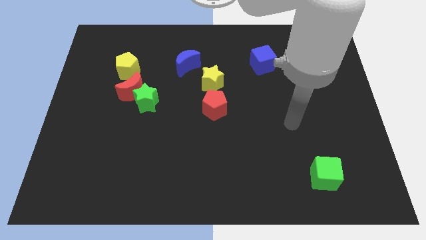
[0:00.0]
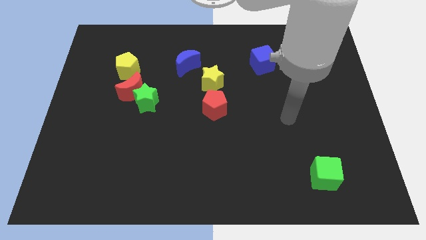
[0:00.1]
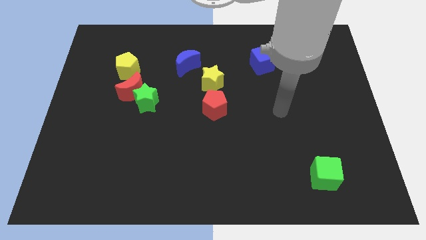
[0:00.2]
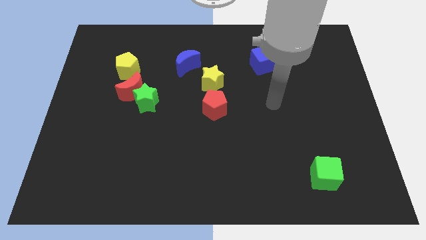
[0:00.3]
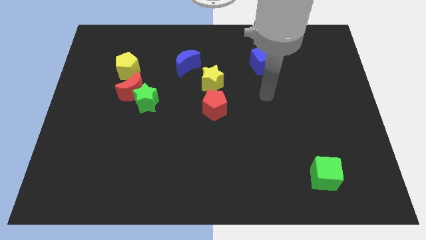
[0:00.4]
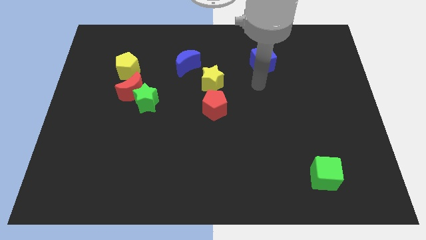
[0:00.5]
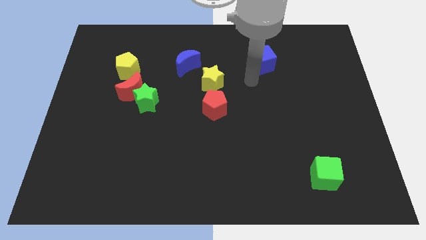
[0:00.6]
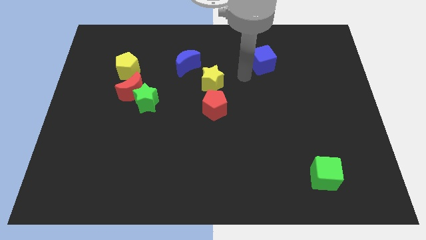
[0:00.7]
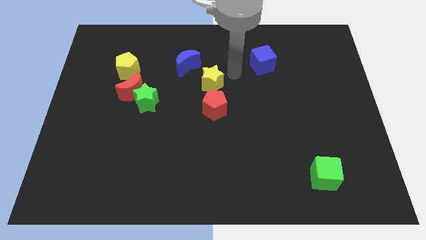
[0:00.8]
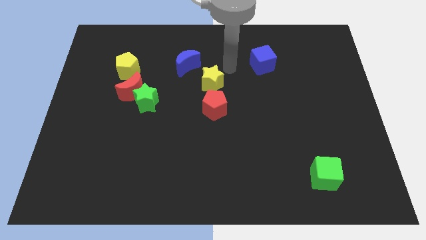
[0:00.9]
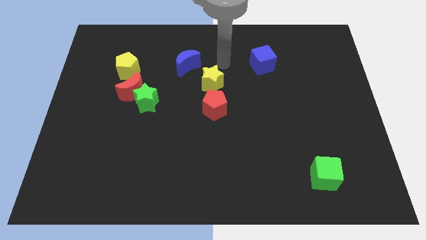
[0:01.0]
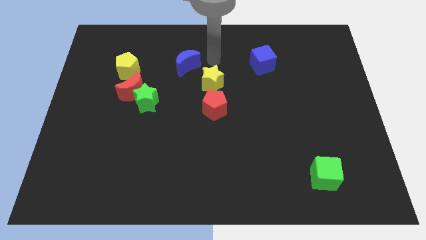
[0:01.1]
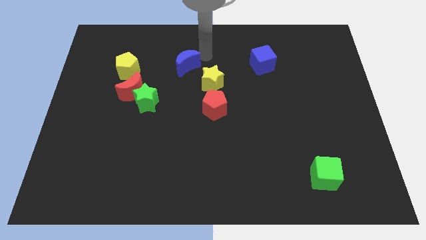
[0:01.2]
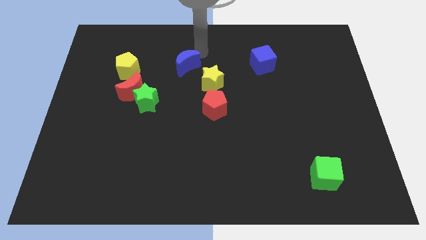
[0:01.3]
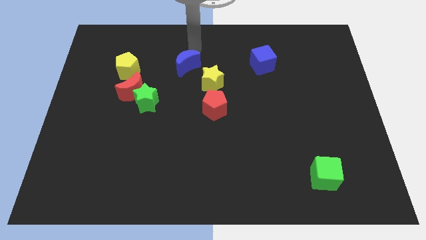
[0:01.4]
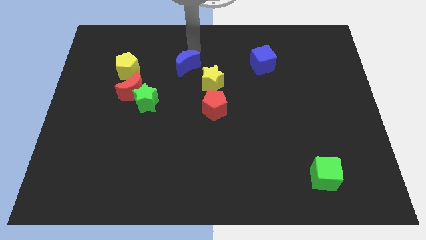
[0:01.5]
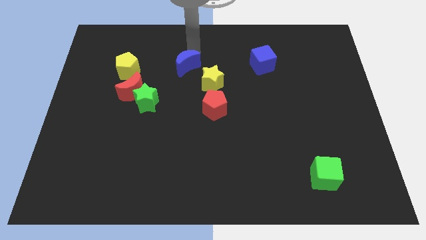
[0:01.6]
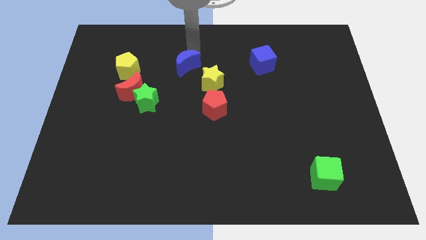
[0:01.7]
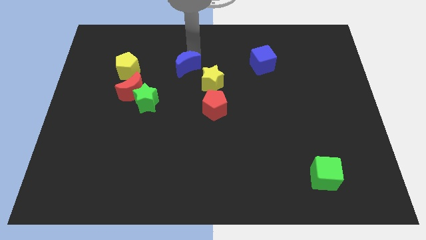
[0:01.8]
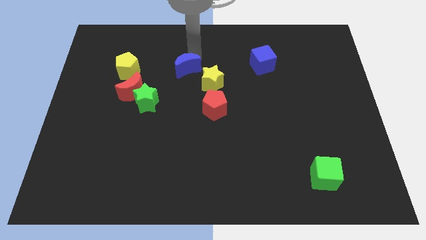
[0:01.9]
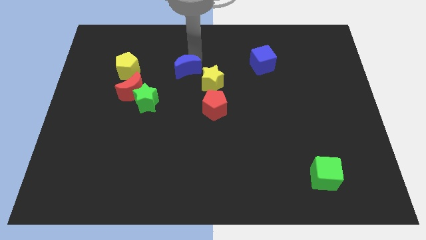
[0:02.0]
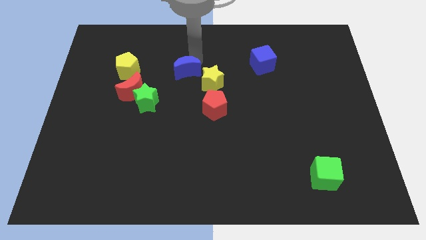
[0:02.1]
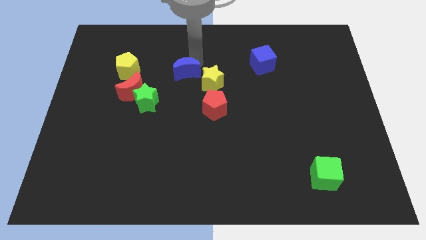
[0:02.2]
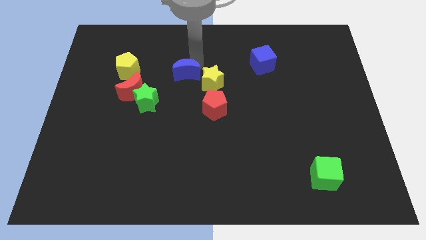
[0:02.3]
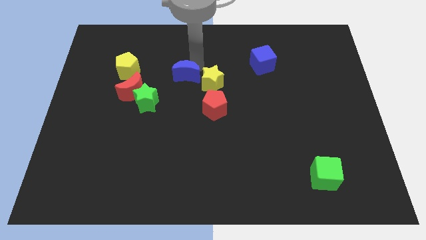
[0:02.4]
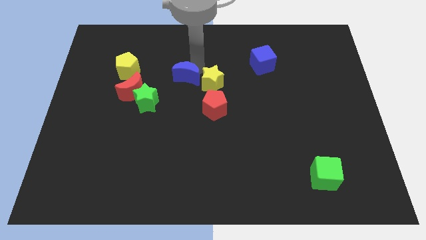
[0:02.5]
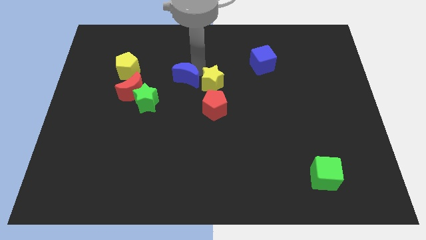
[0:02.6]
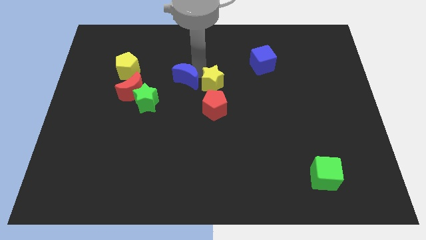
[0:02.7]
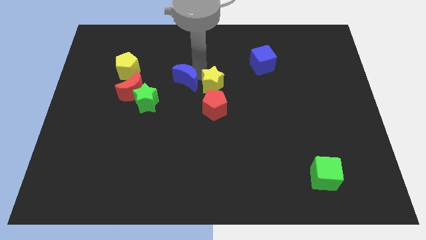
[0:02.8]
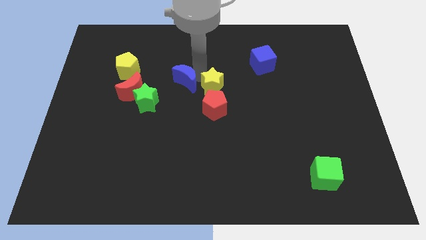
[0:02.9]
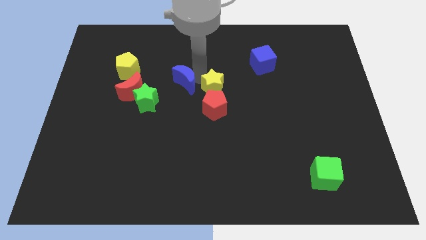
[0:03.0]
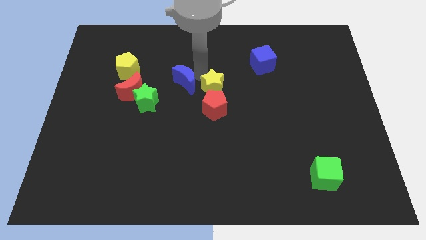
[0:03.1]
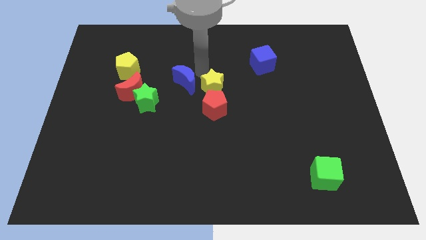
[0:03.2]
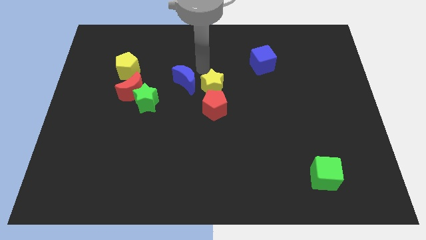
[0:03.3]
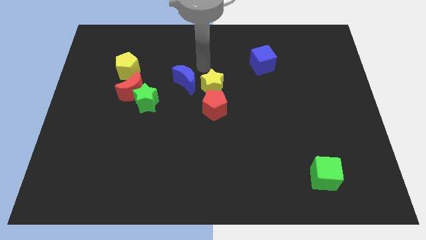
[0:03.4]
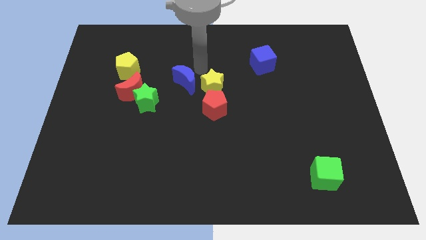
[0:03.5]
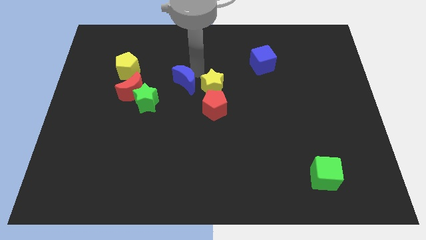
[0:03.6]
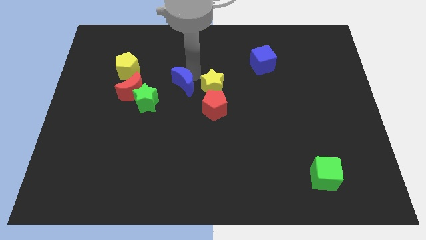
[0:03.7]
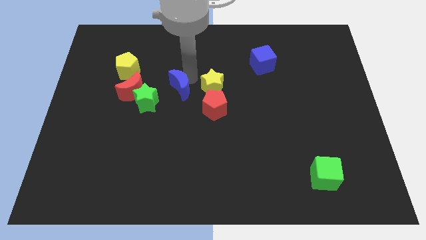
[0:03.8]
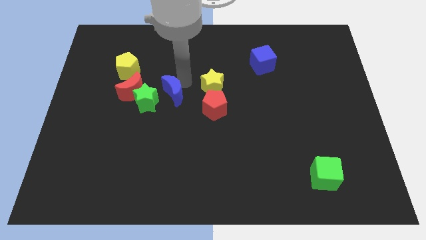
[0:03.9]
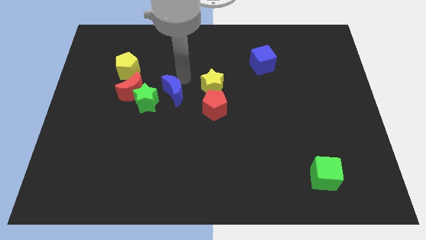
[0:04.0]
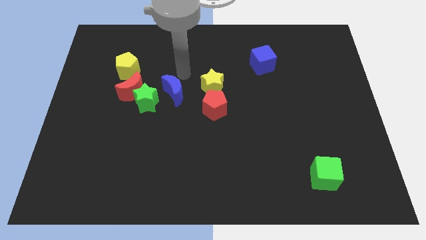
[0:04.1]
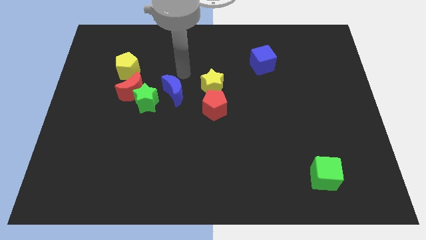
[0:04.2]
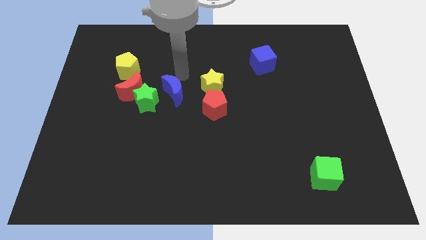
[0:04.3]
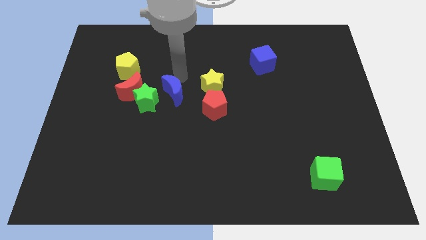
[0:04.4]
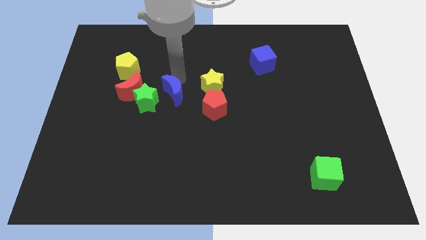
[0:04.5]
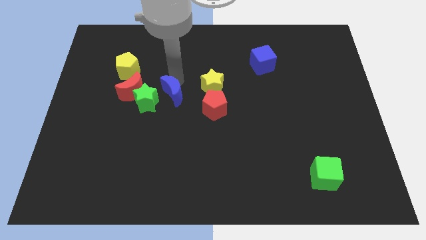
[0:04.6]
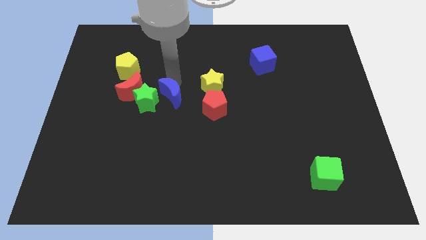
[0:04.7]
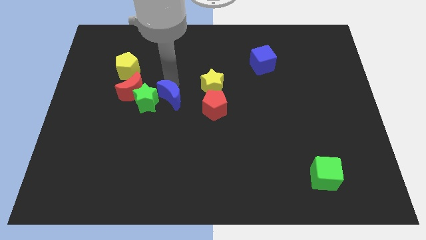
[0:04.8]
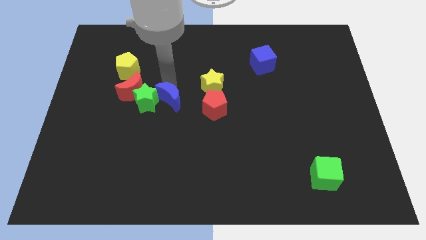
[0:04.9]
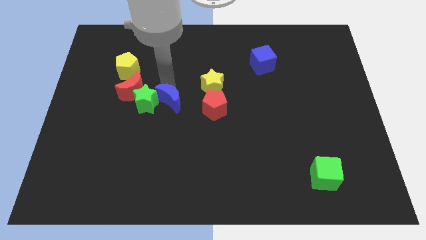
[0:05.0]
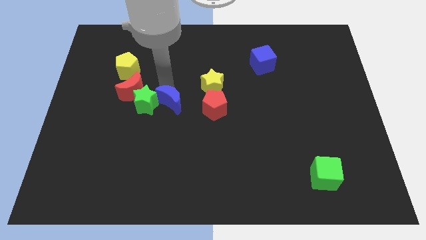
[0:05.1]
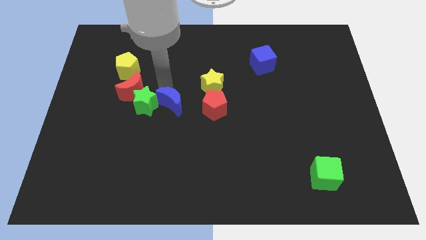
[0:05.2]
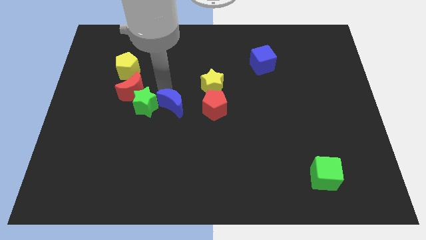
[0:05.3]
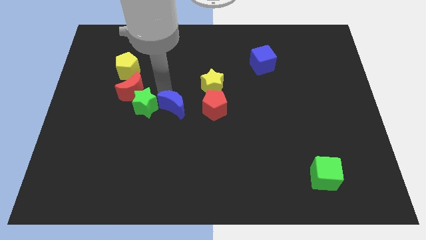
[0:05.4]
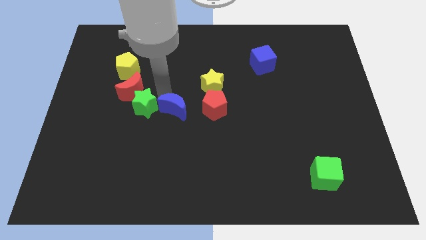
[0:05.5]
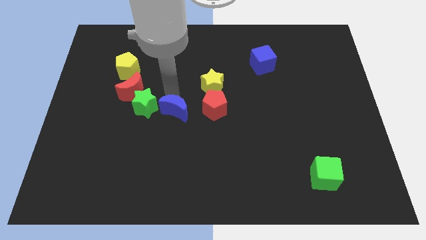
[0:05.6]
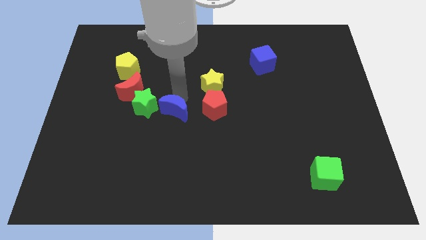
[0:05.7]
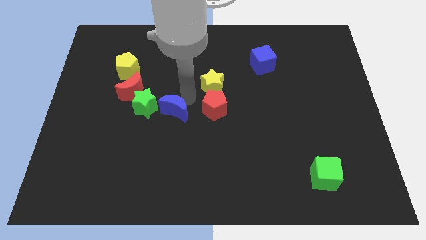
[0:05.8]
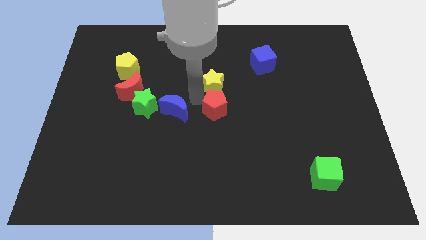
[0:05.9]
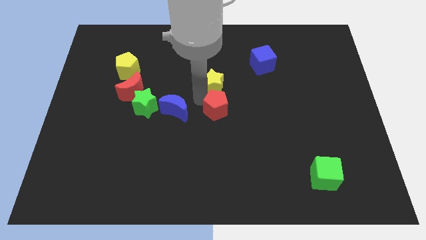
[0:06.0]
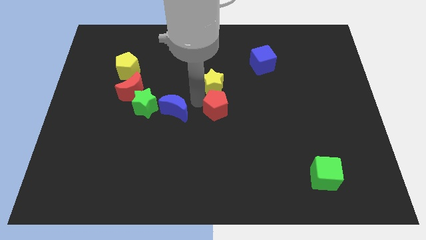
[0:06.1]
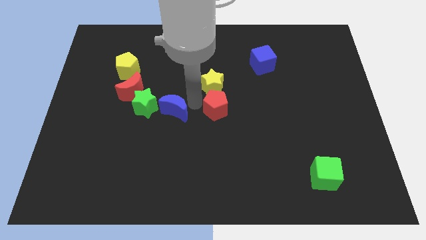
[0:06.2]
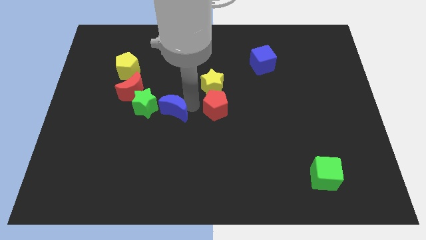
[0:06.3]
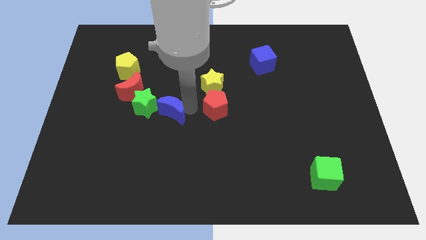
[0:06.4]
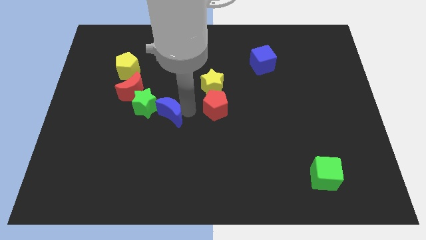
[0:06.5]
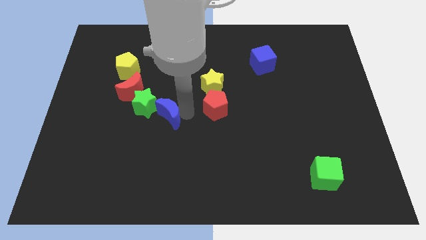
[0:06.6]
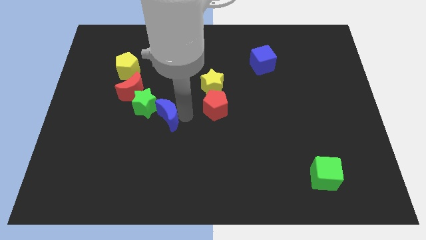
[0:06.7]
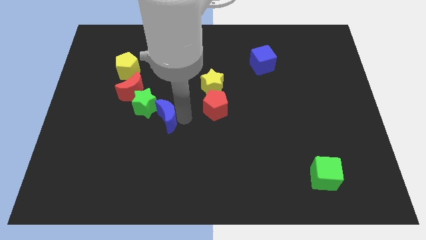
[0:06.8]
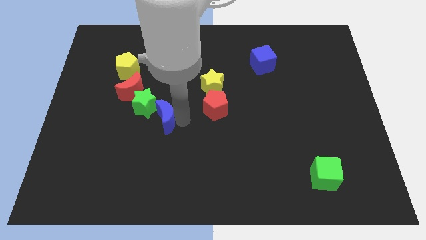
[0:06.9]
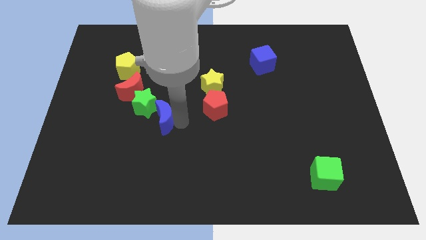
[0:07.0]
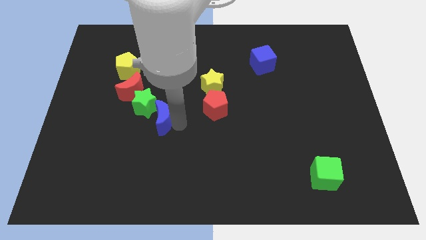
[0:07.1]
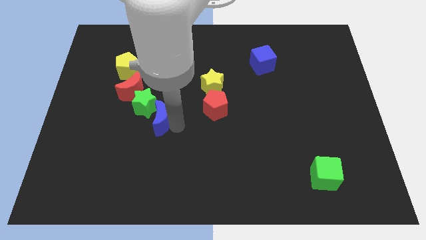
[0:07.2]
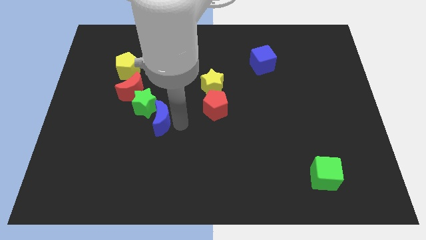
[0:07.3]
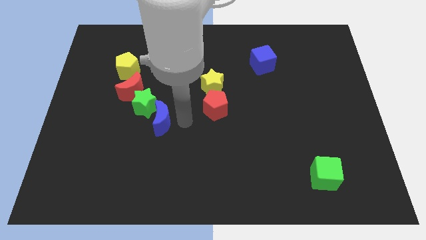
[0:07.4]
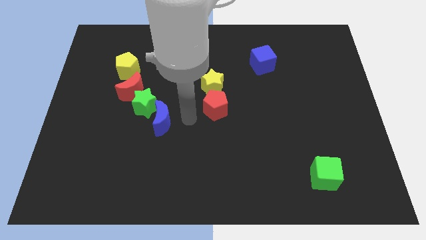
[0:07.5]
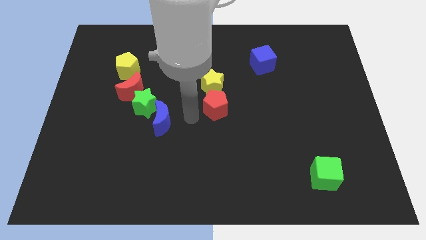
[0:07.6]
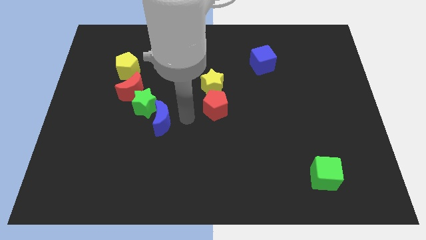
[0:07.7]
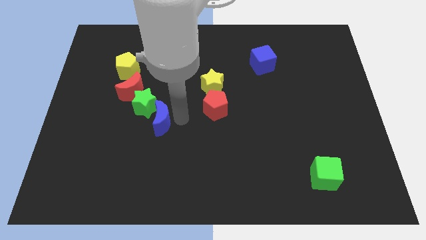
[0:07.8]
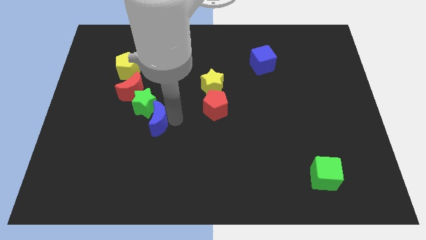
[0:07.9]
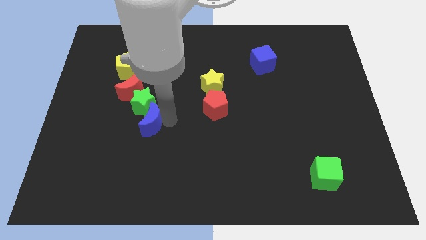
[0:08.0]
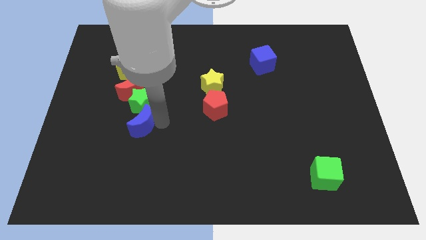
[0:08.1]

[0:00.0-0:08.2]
slide the blue moon to the bottom of the red moon
